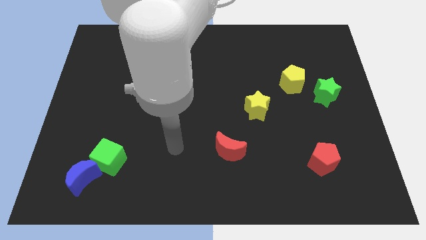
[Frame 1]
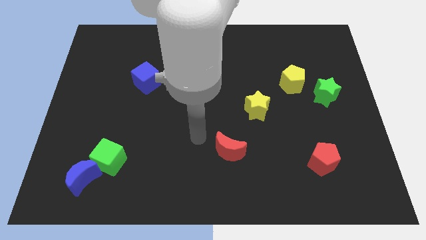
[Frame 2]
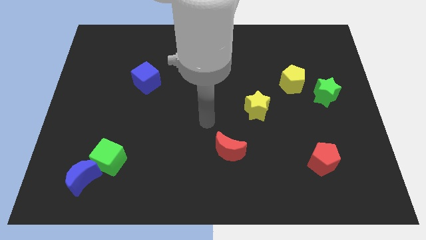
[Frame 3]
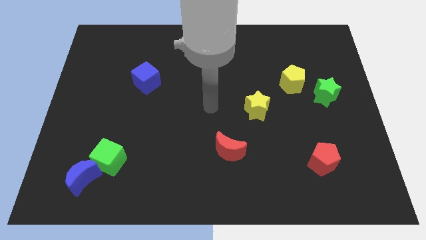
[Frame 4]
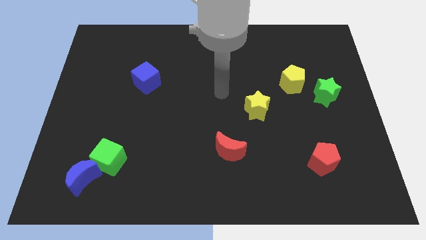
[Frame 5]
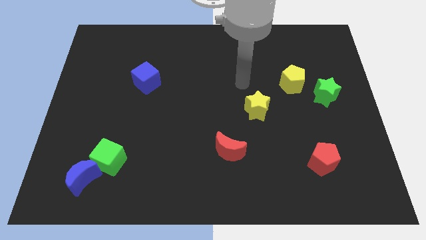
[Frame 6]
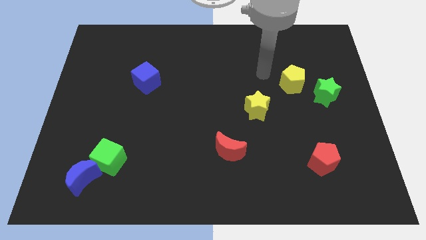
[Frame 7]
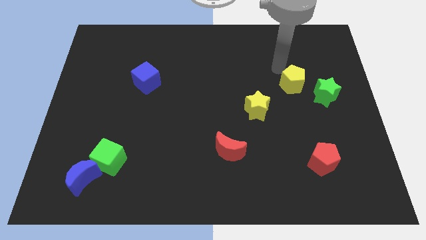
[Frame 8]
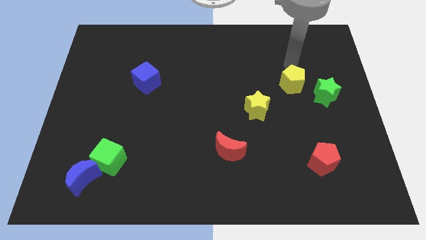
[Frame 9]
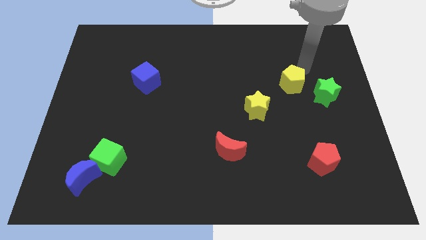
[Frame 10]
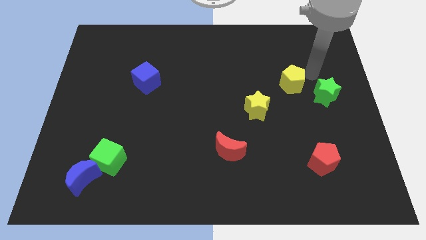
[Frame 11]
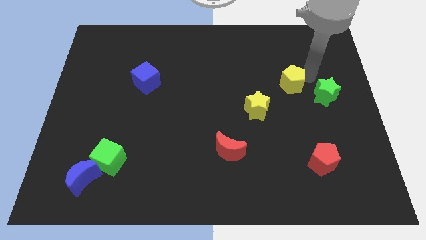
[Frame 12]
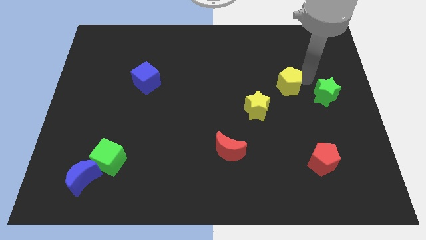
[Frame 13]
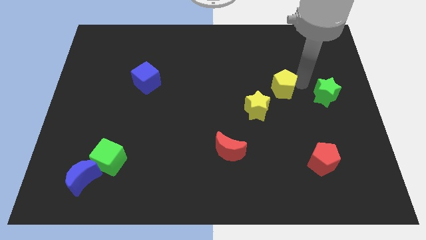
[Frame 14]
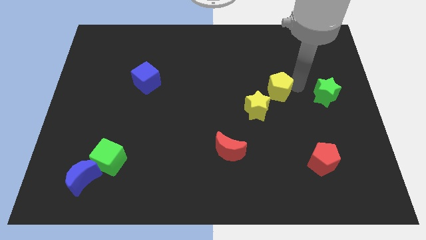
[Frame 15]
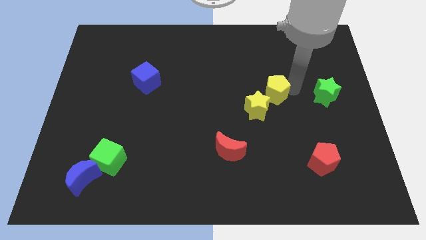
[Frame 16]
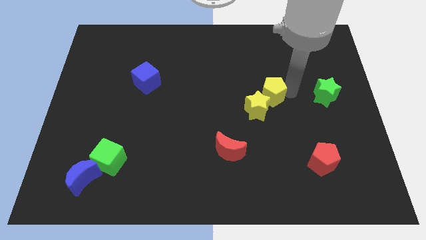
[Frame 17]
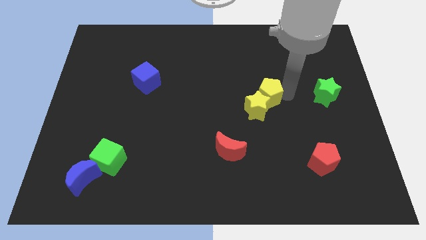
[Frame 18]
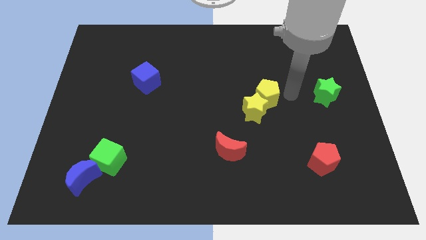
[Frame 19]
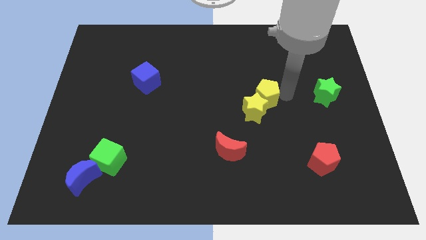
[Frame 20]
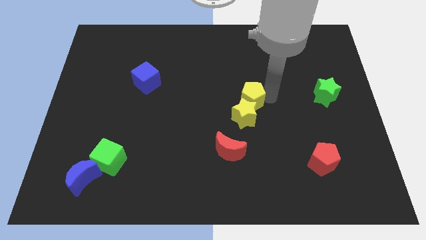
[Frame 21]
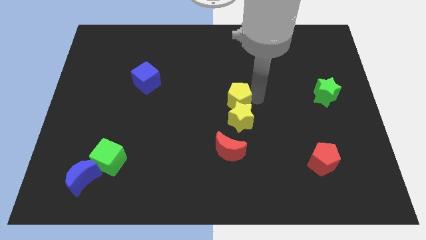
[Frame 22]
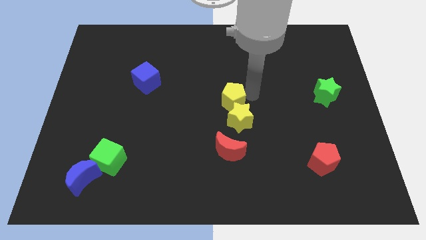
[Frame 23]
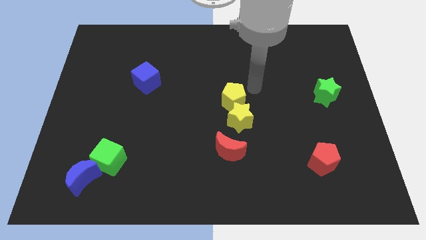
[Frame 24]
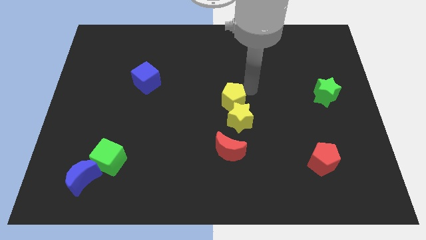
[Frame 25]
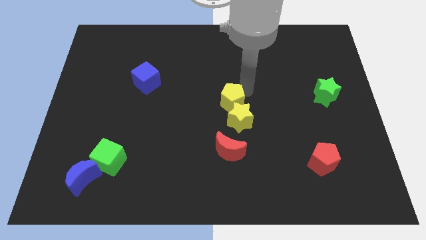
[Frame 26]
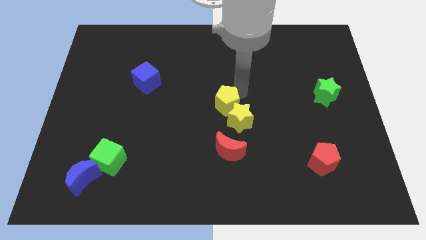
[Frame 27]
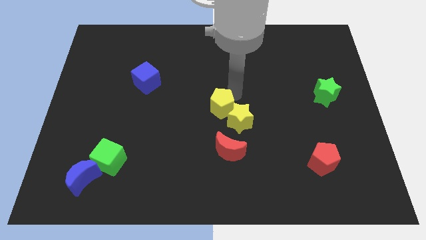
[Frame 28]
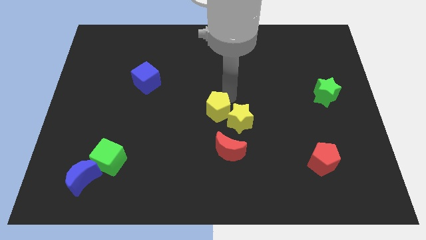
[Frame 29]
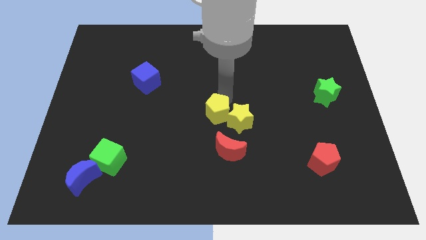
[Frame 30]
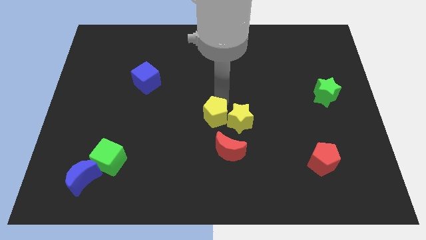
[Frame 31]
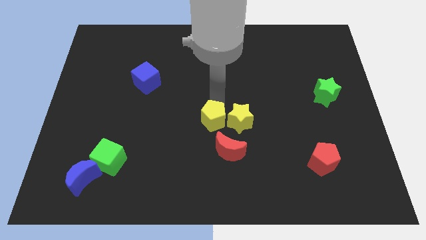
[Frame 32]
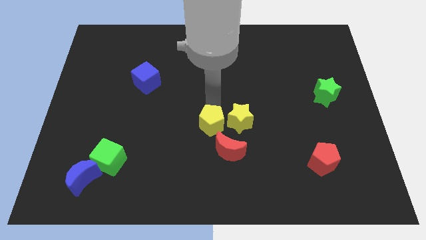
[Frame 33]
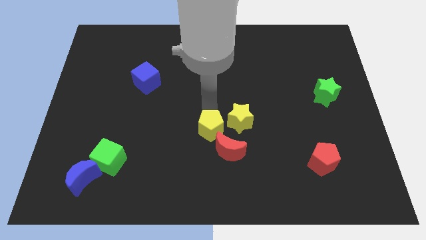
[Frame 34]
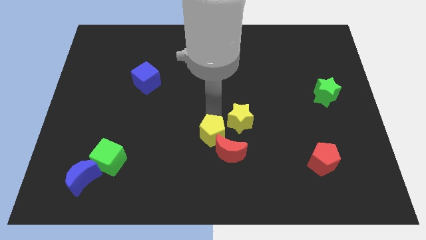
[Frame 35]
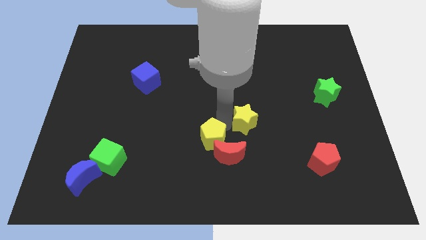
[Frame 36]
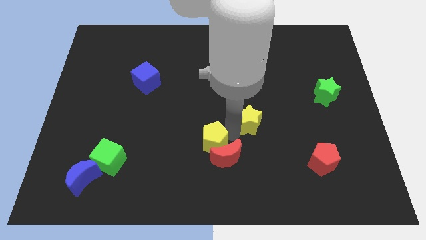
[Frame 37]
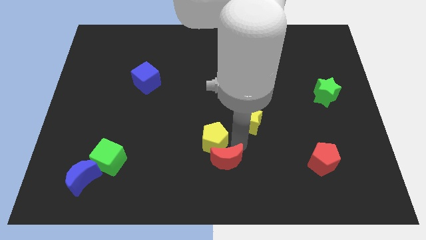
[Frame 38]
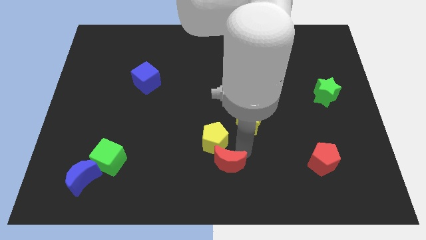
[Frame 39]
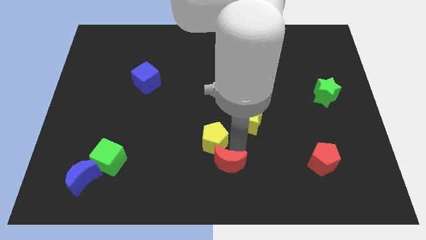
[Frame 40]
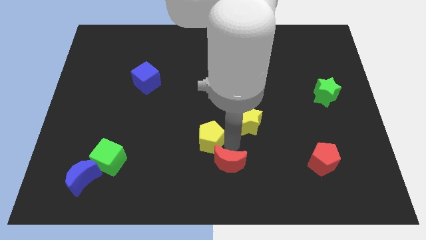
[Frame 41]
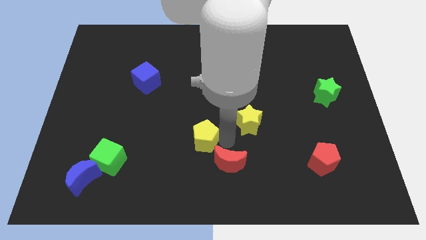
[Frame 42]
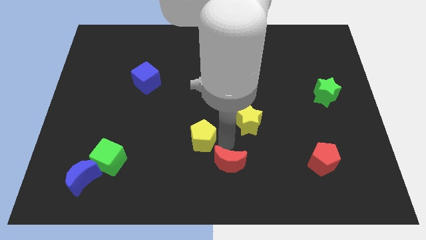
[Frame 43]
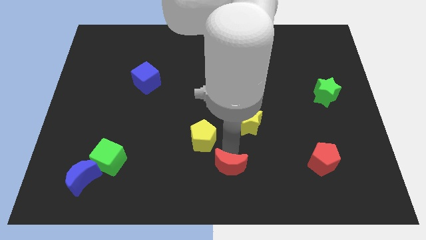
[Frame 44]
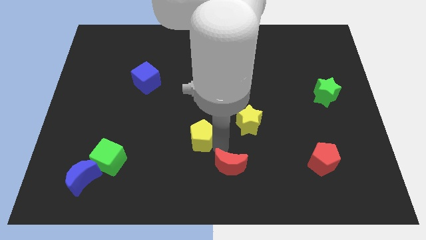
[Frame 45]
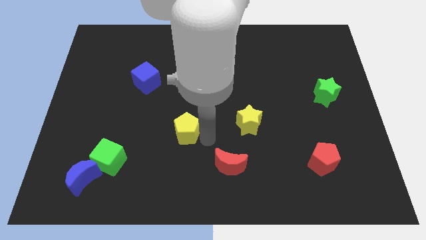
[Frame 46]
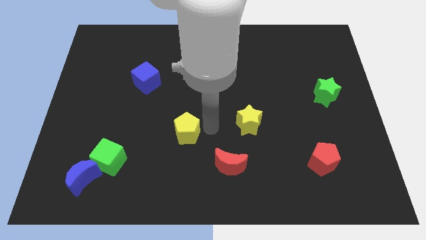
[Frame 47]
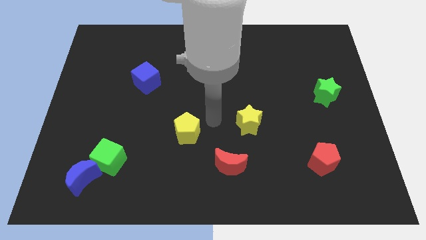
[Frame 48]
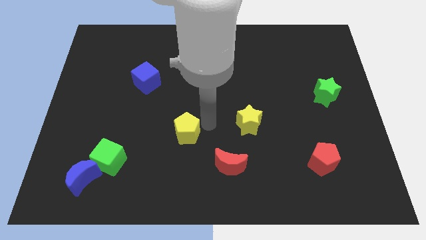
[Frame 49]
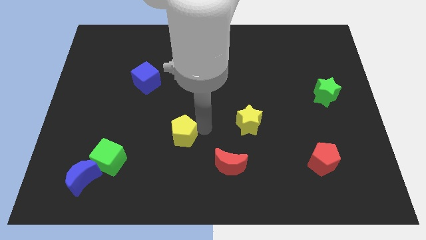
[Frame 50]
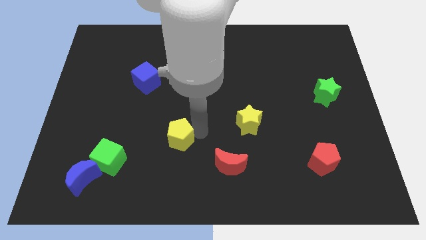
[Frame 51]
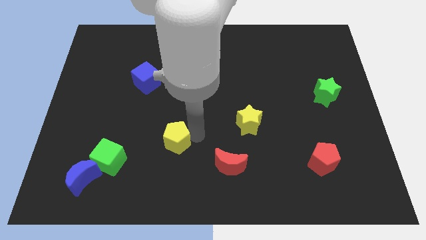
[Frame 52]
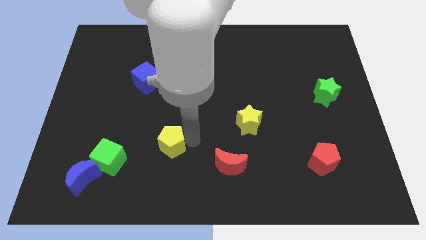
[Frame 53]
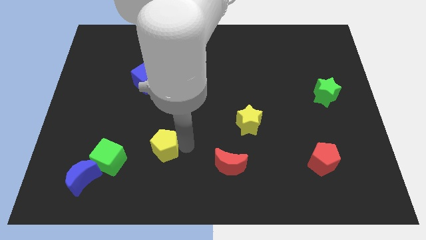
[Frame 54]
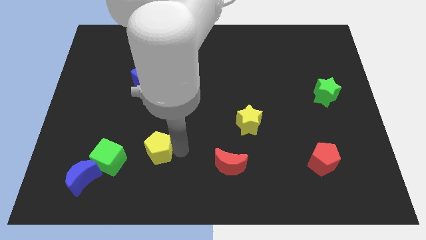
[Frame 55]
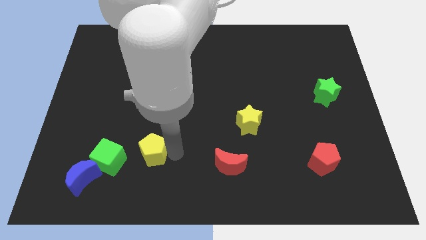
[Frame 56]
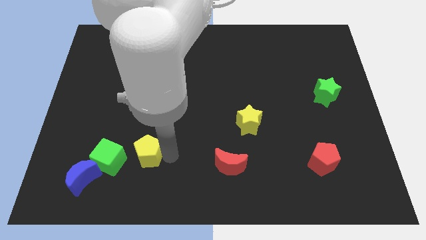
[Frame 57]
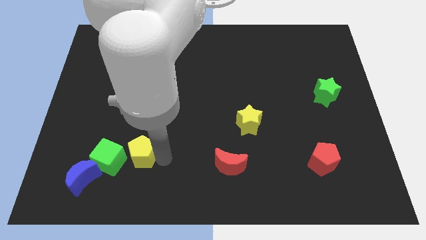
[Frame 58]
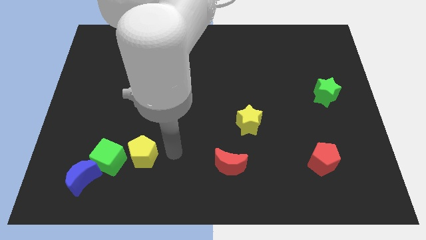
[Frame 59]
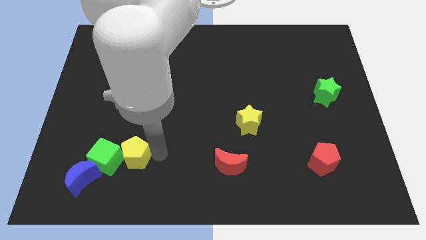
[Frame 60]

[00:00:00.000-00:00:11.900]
move the yellow pentagon to the green cube
